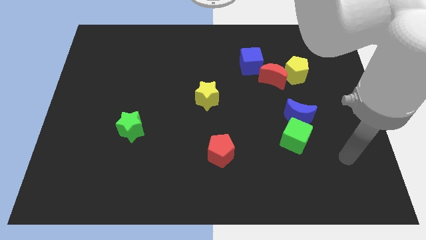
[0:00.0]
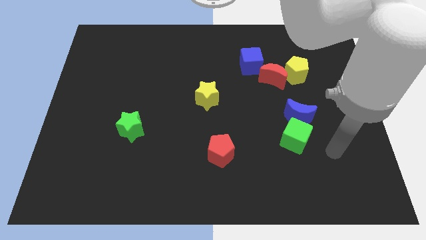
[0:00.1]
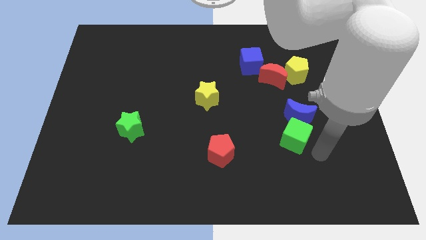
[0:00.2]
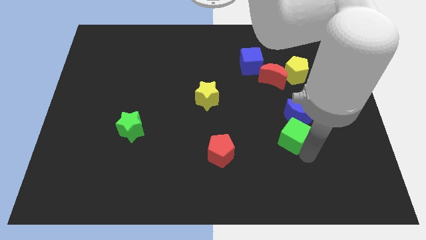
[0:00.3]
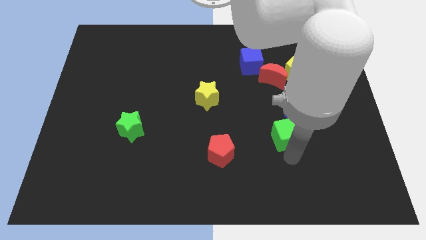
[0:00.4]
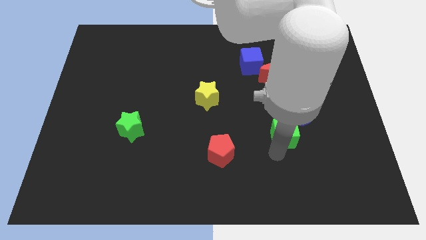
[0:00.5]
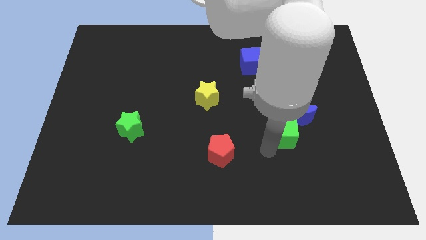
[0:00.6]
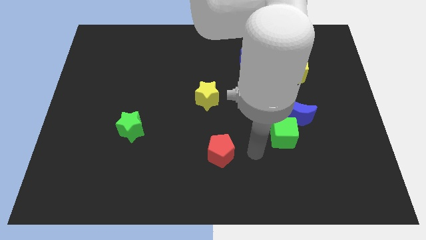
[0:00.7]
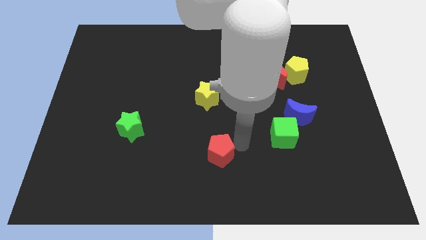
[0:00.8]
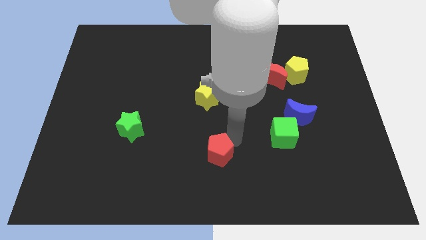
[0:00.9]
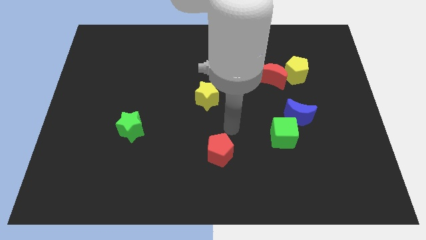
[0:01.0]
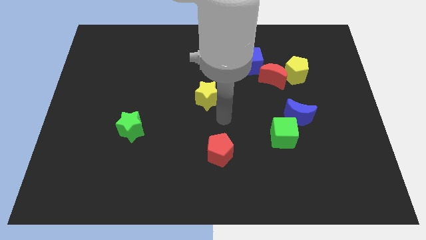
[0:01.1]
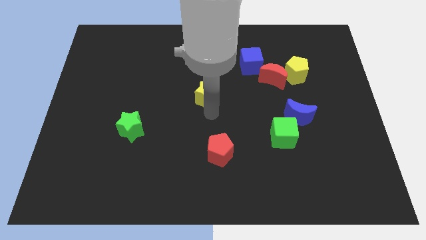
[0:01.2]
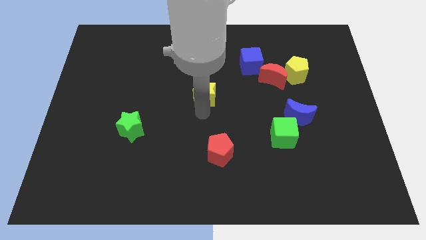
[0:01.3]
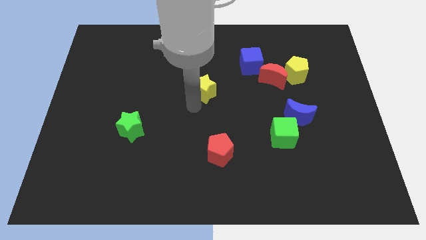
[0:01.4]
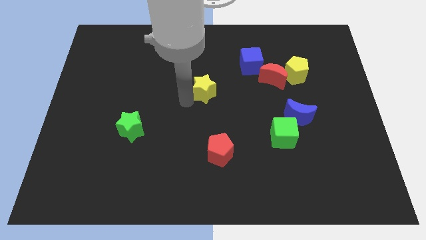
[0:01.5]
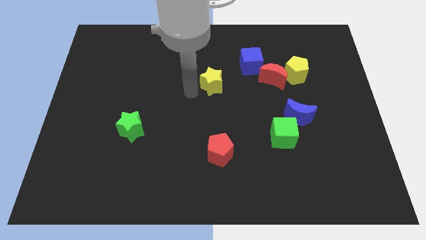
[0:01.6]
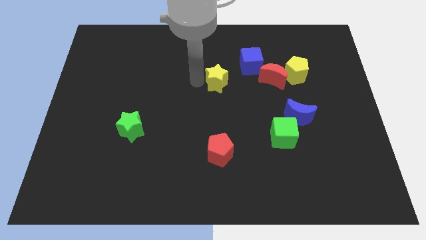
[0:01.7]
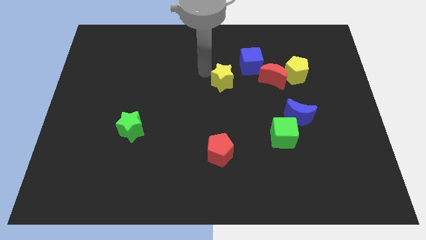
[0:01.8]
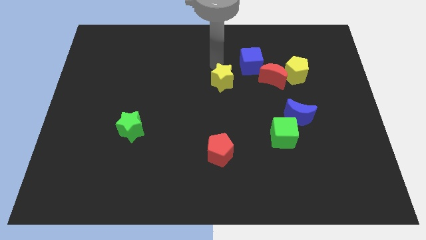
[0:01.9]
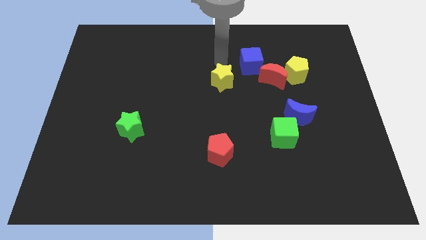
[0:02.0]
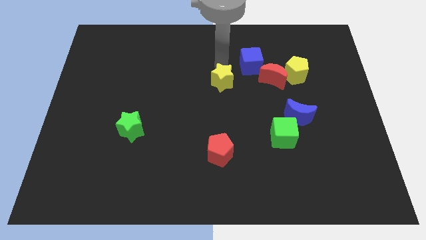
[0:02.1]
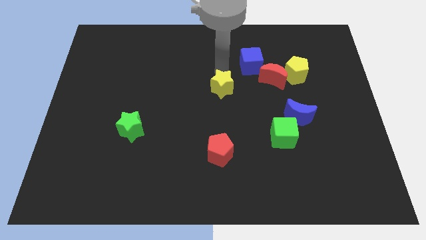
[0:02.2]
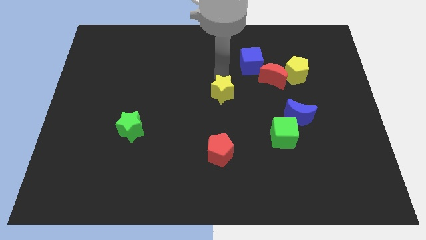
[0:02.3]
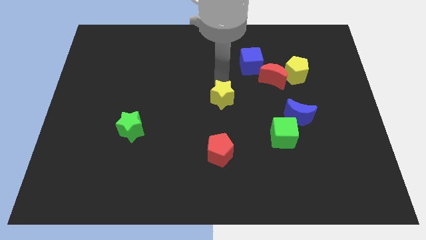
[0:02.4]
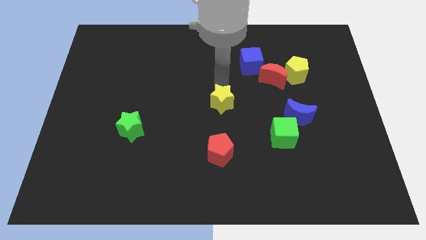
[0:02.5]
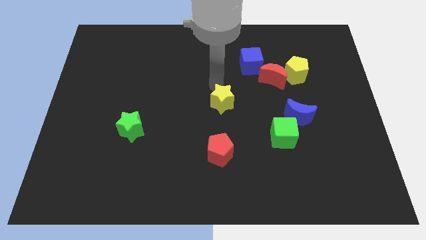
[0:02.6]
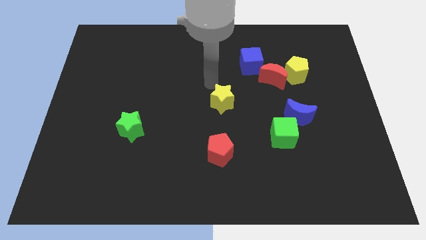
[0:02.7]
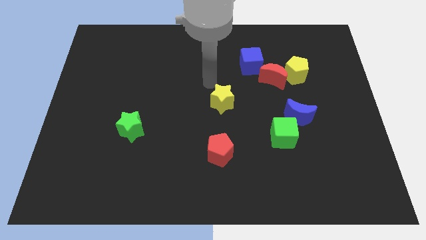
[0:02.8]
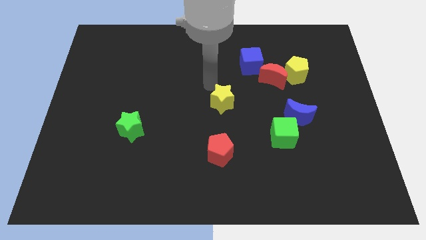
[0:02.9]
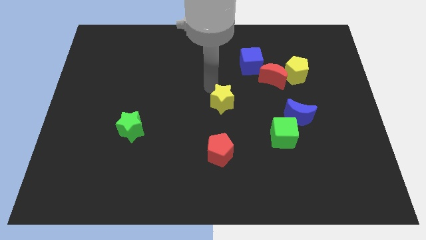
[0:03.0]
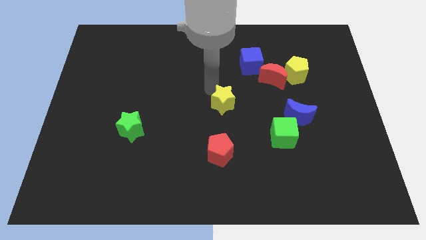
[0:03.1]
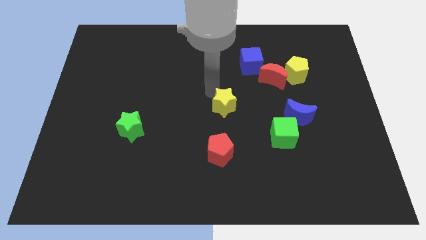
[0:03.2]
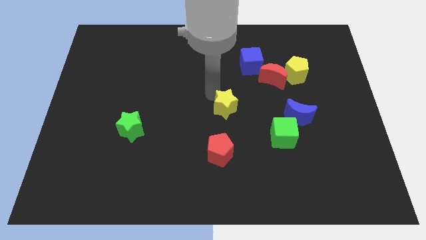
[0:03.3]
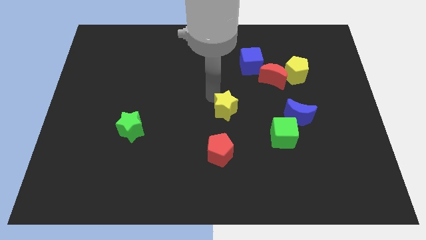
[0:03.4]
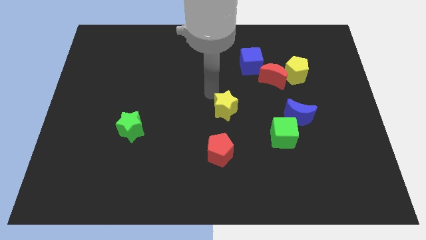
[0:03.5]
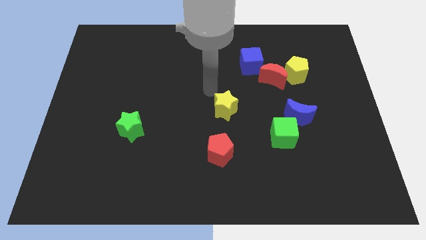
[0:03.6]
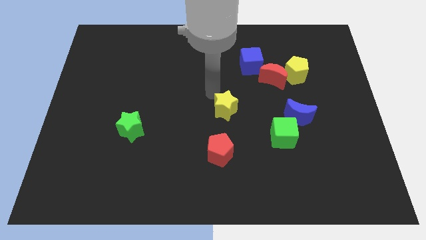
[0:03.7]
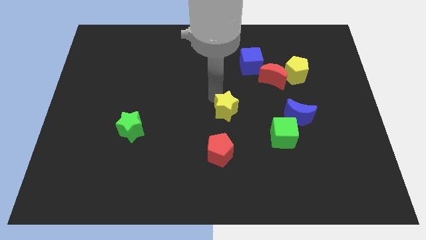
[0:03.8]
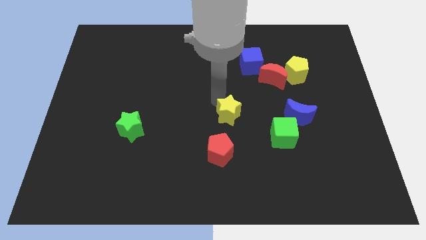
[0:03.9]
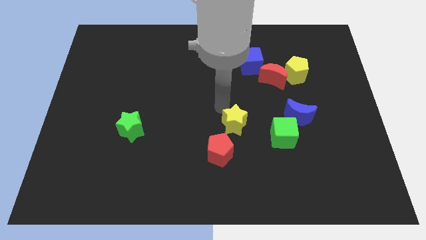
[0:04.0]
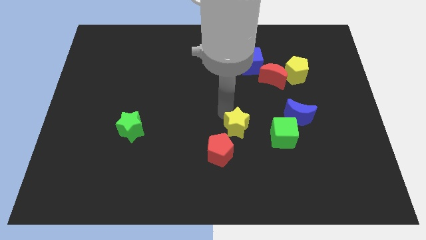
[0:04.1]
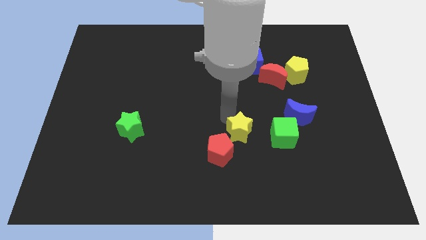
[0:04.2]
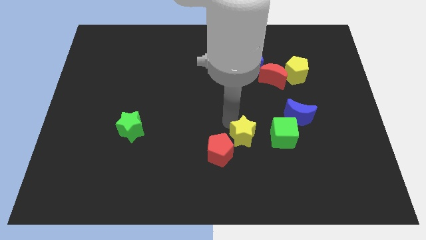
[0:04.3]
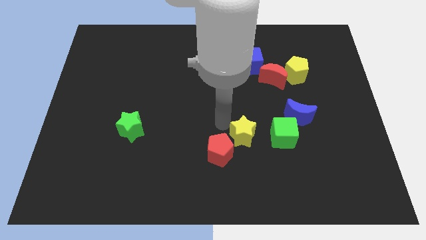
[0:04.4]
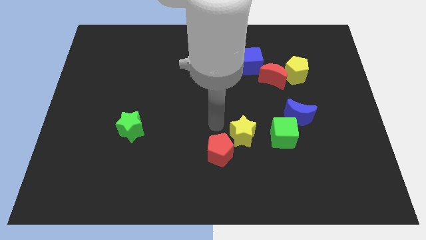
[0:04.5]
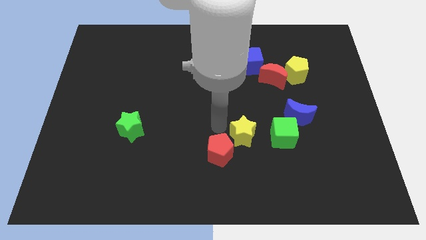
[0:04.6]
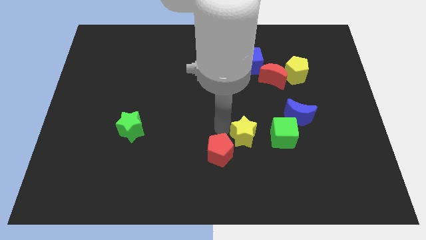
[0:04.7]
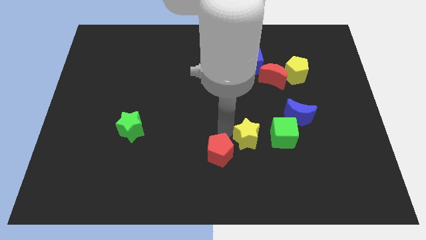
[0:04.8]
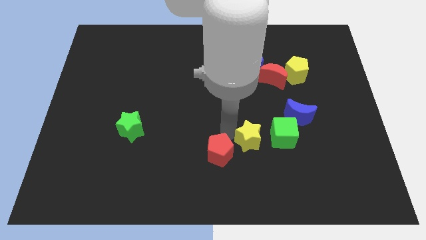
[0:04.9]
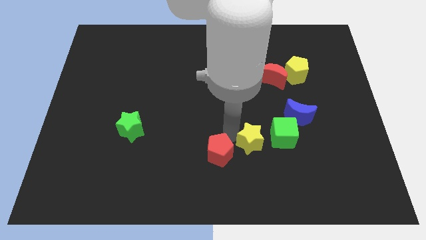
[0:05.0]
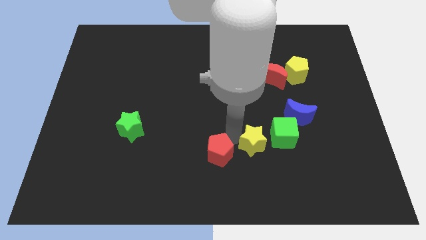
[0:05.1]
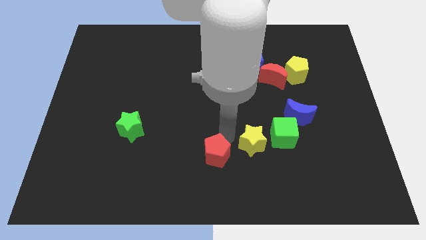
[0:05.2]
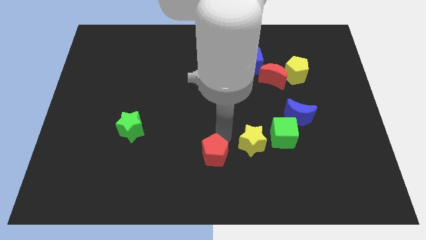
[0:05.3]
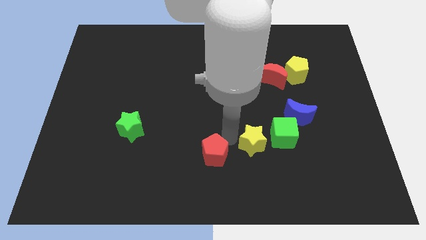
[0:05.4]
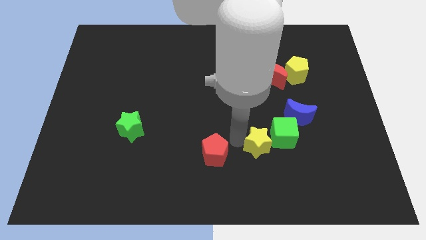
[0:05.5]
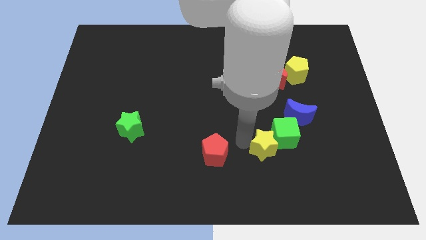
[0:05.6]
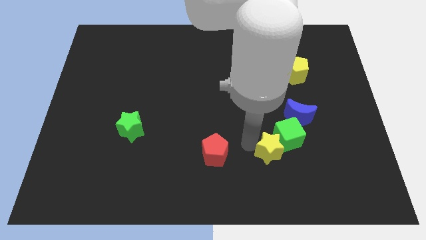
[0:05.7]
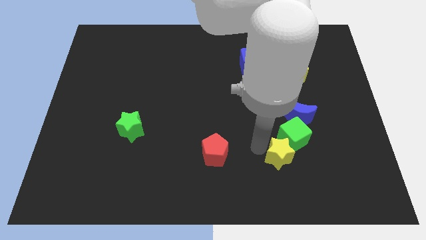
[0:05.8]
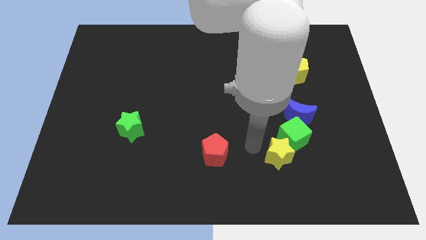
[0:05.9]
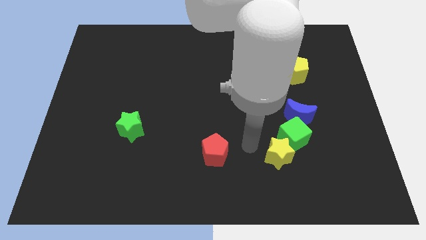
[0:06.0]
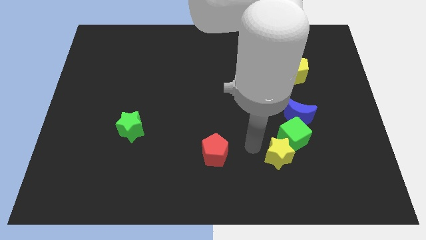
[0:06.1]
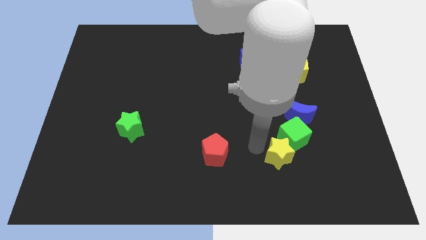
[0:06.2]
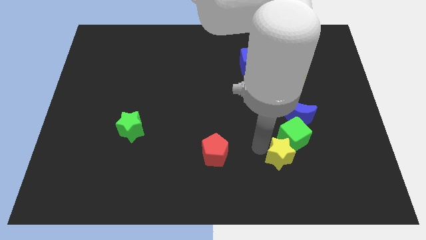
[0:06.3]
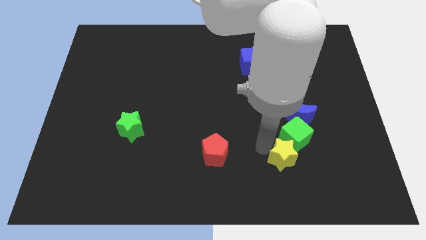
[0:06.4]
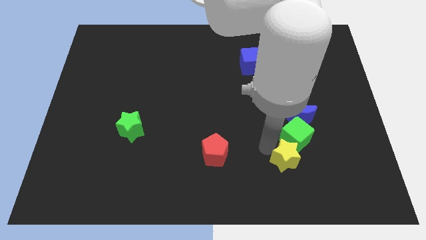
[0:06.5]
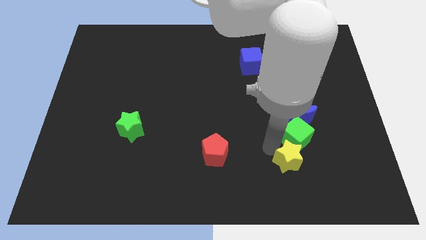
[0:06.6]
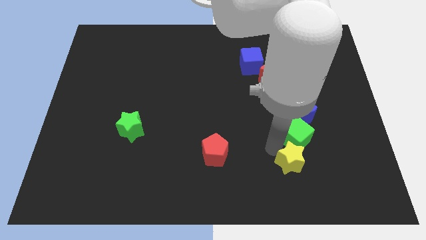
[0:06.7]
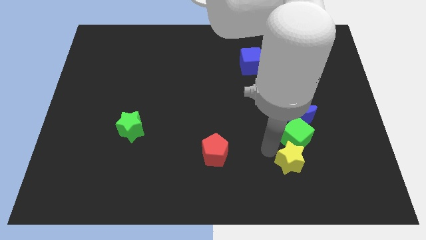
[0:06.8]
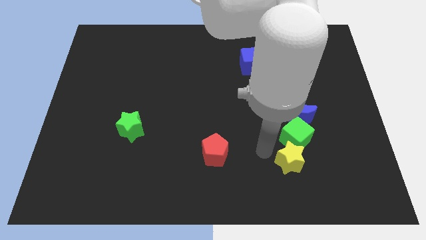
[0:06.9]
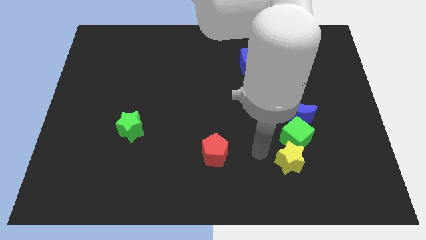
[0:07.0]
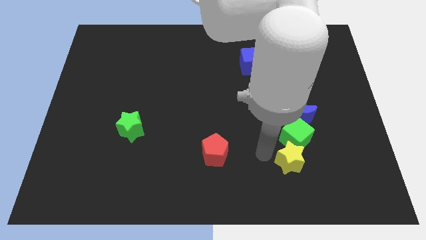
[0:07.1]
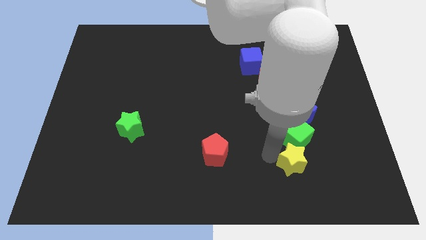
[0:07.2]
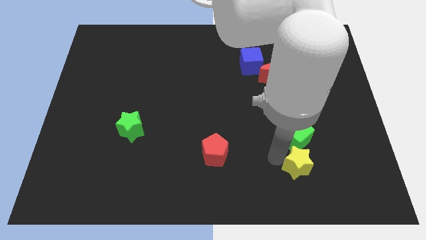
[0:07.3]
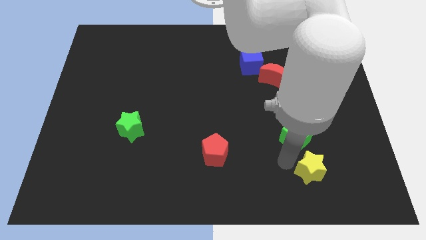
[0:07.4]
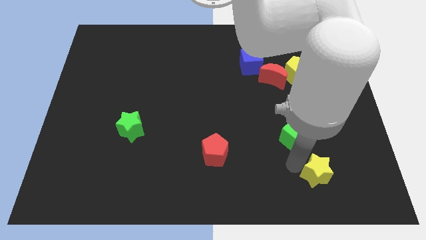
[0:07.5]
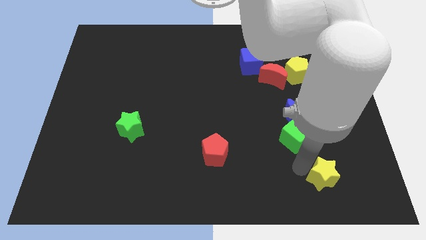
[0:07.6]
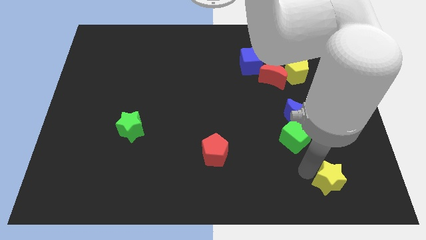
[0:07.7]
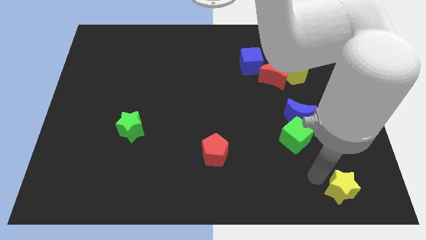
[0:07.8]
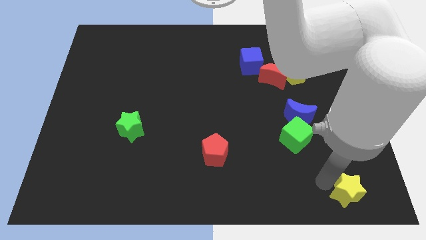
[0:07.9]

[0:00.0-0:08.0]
push the yellow star to the bottom right of the board
